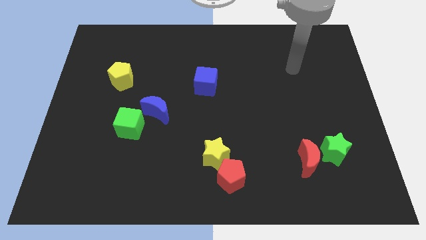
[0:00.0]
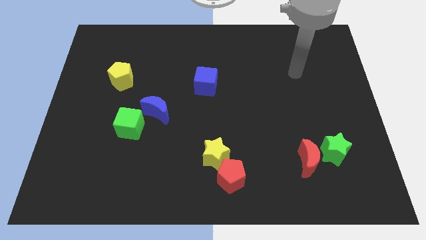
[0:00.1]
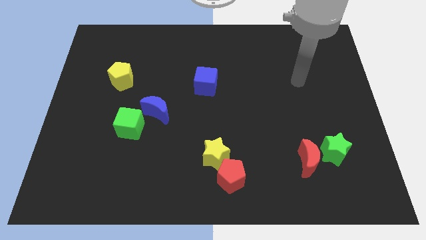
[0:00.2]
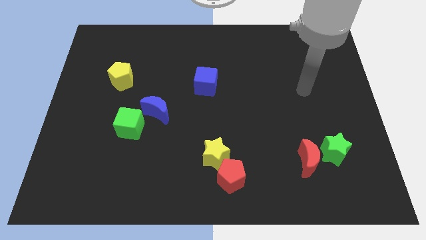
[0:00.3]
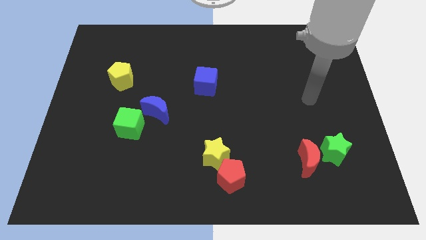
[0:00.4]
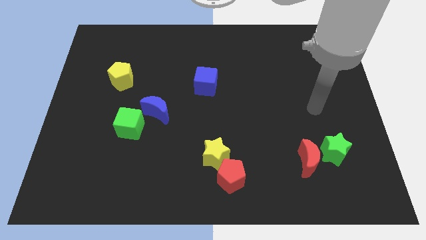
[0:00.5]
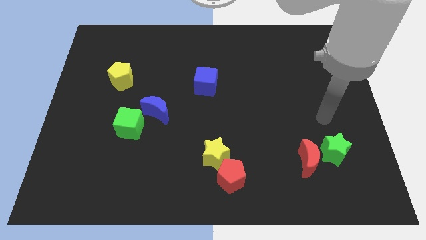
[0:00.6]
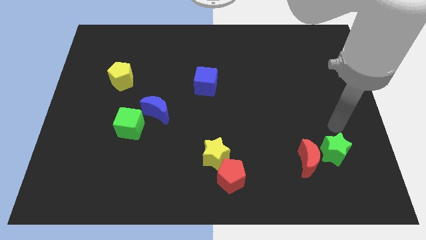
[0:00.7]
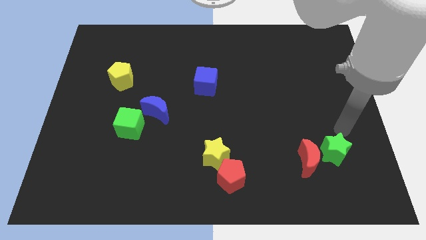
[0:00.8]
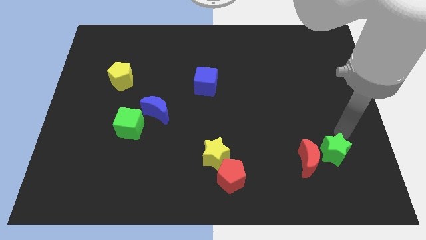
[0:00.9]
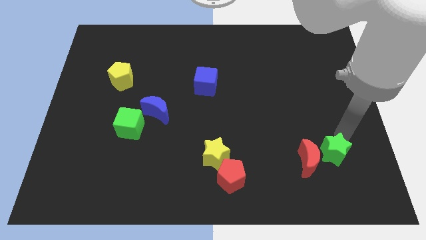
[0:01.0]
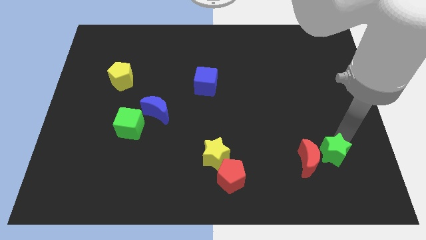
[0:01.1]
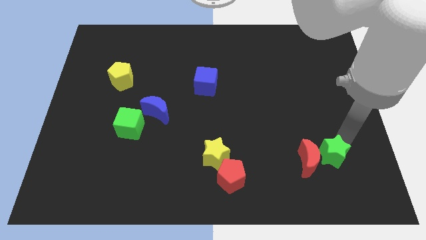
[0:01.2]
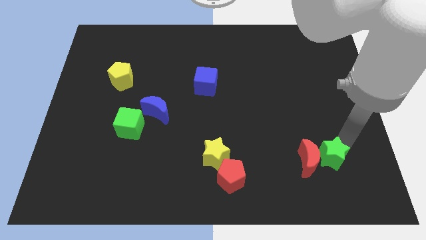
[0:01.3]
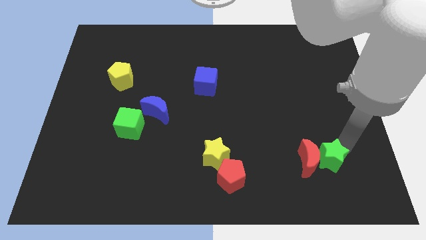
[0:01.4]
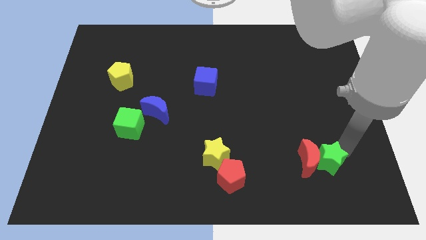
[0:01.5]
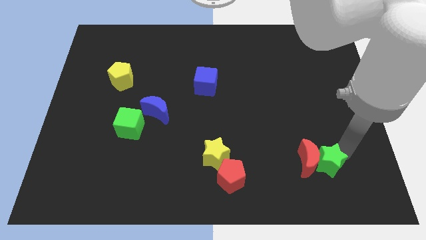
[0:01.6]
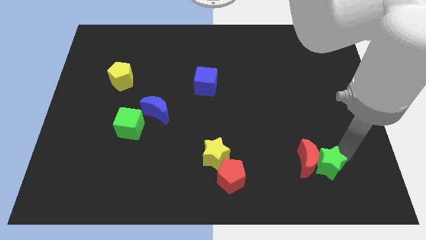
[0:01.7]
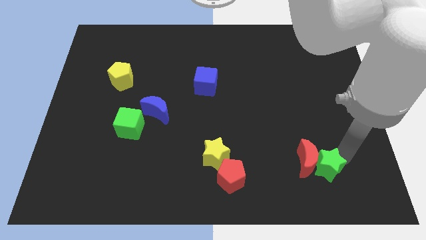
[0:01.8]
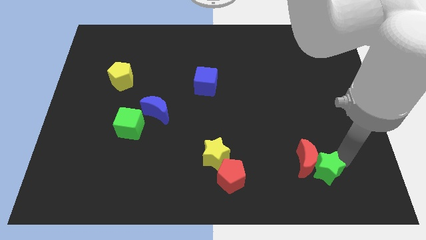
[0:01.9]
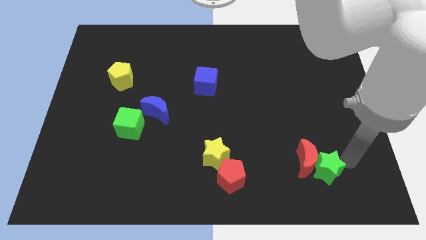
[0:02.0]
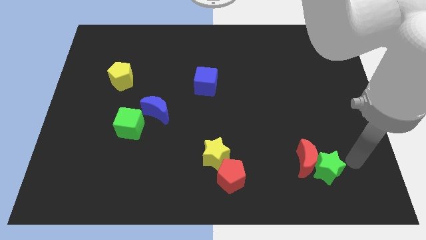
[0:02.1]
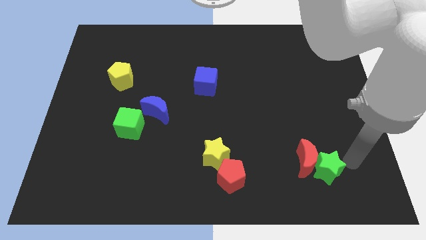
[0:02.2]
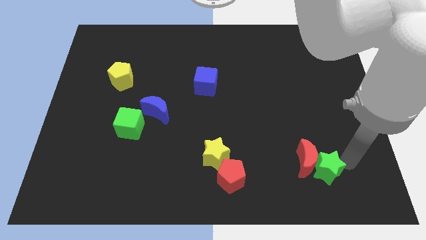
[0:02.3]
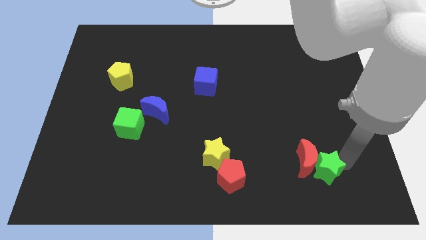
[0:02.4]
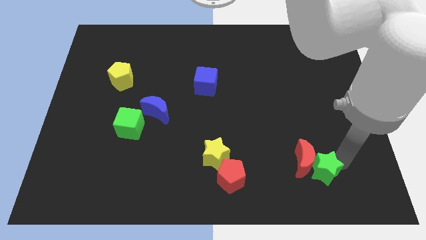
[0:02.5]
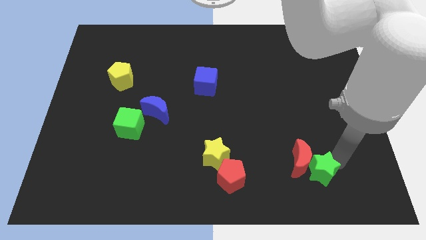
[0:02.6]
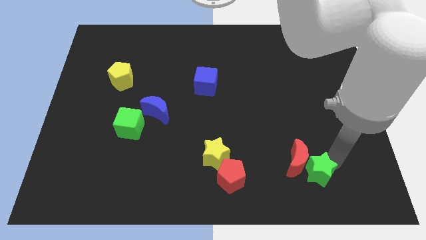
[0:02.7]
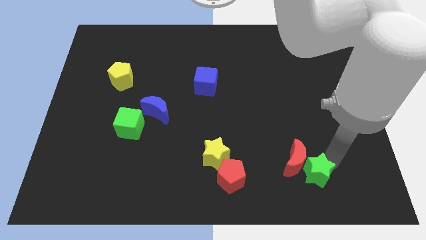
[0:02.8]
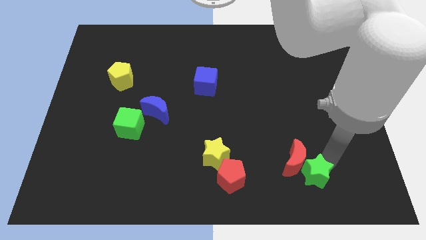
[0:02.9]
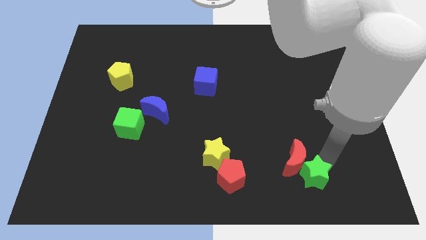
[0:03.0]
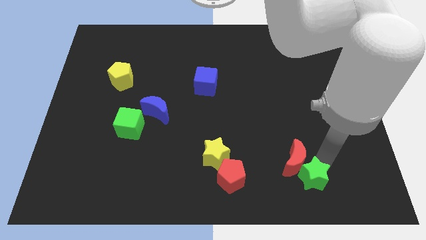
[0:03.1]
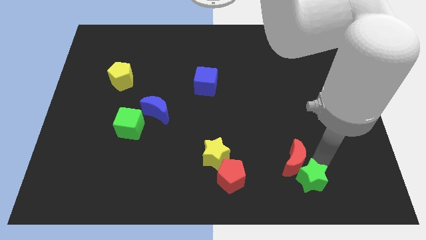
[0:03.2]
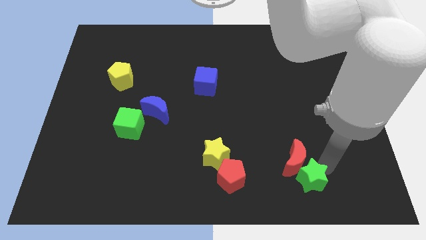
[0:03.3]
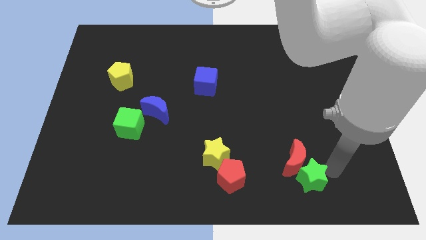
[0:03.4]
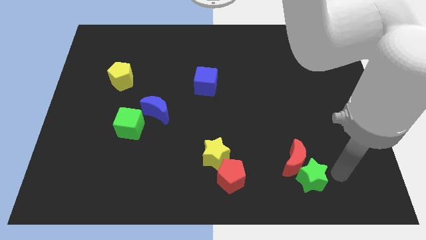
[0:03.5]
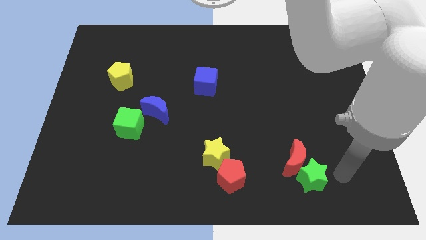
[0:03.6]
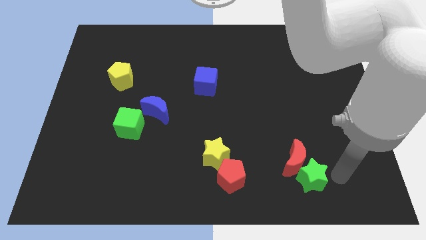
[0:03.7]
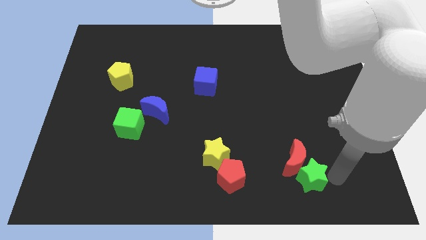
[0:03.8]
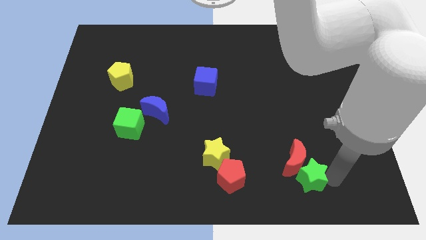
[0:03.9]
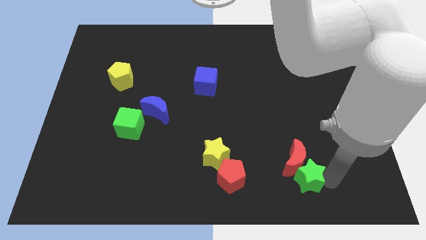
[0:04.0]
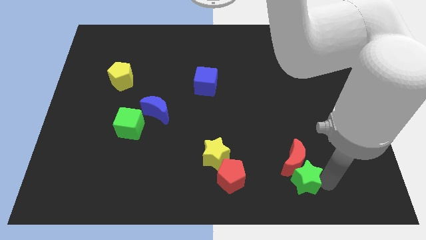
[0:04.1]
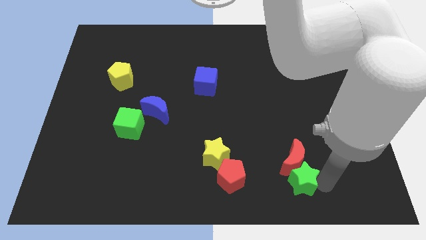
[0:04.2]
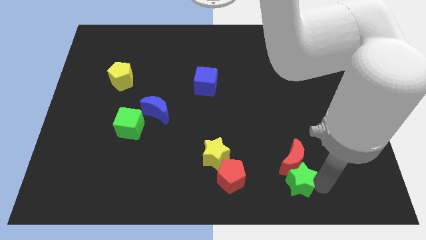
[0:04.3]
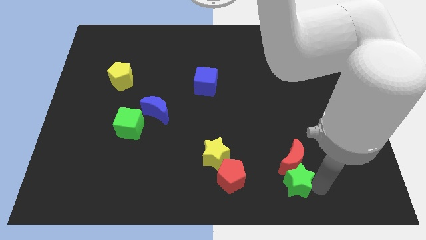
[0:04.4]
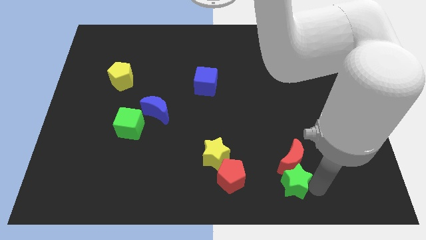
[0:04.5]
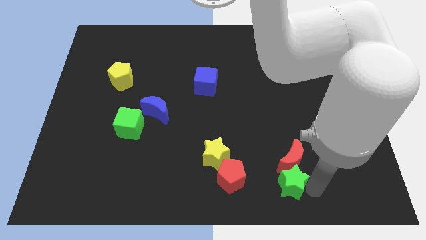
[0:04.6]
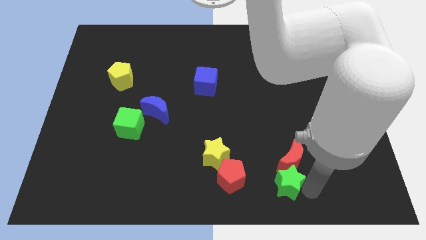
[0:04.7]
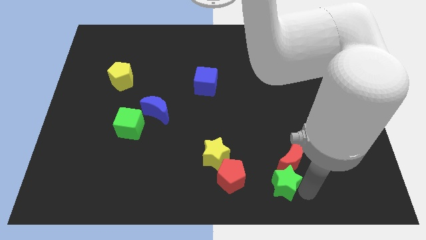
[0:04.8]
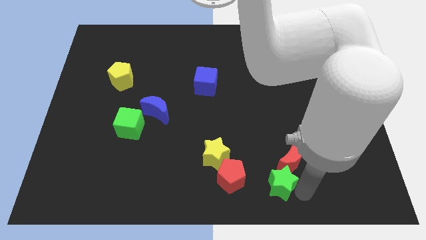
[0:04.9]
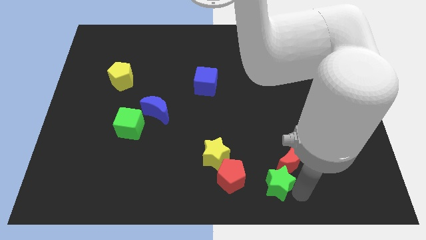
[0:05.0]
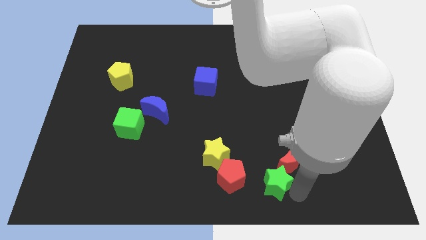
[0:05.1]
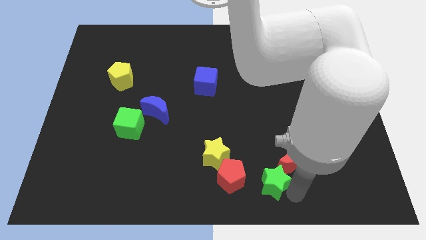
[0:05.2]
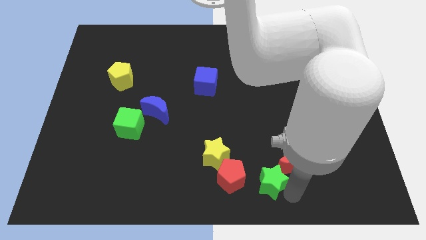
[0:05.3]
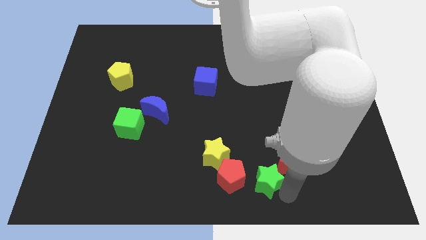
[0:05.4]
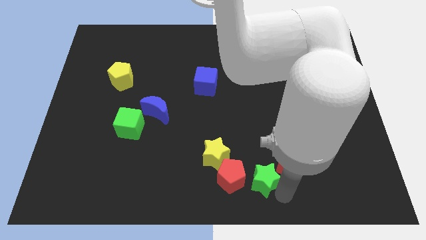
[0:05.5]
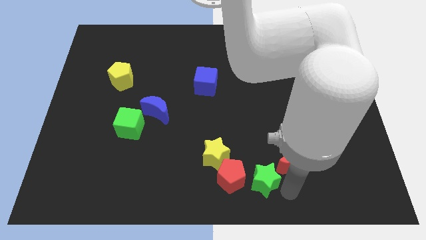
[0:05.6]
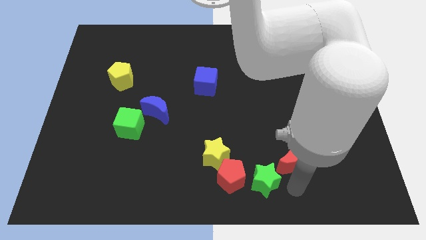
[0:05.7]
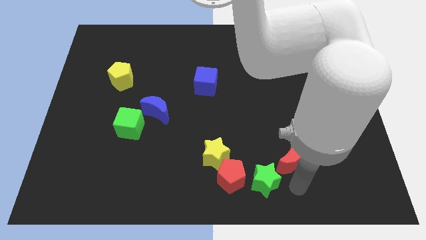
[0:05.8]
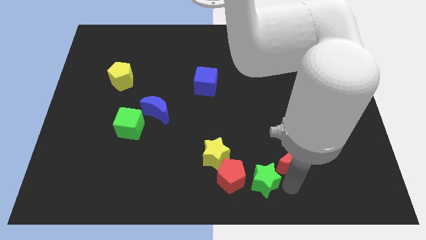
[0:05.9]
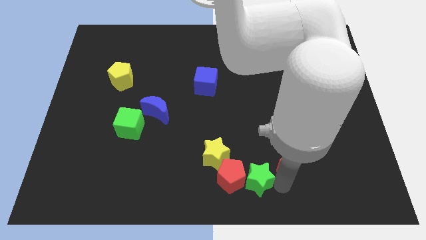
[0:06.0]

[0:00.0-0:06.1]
move the green star close to the red pentagon
